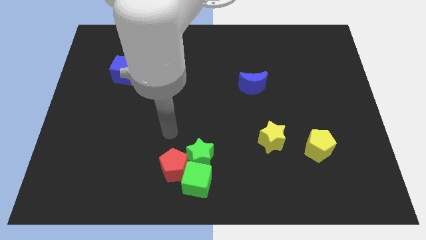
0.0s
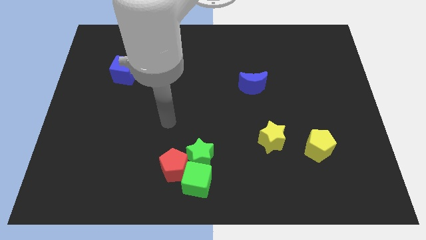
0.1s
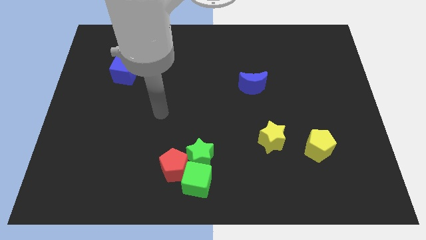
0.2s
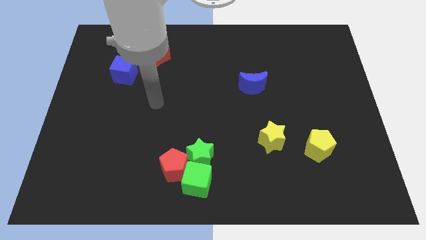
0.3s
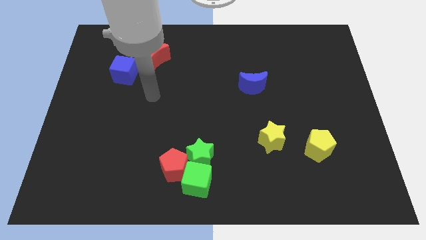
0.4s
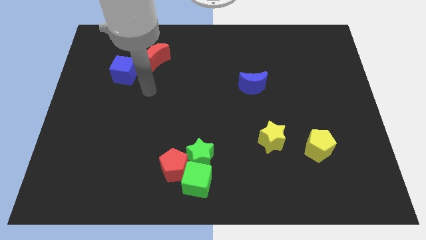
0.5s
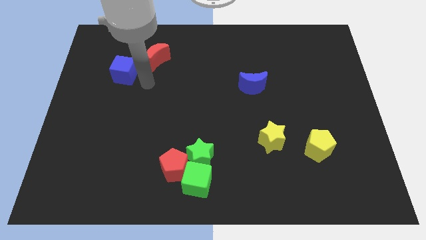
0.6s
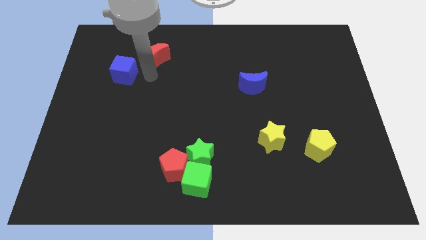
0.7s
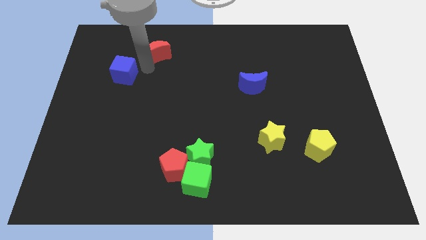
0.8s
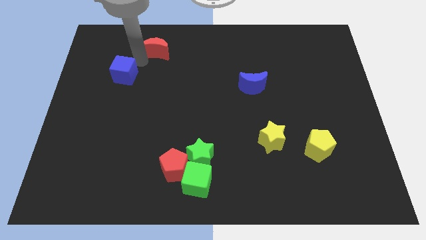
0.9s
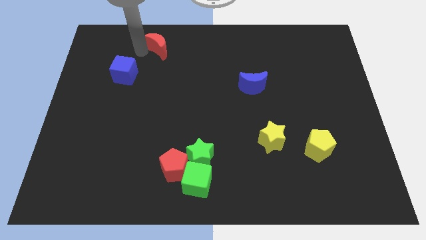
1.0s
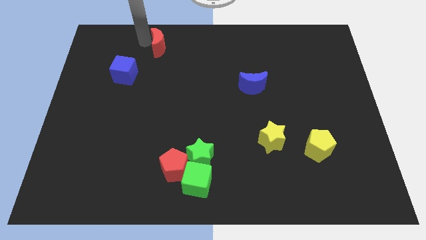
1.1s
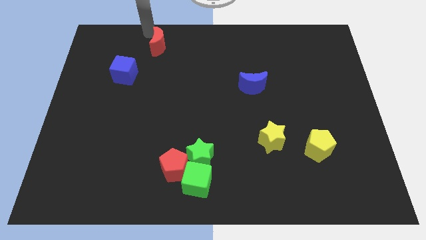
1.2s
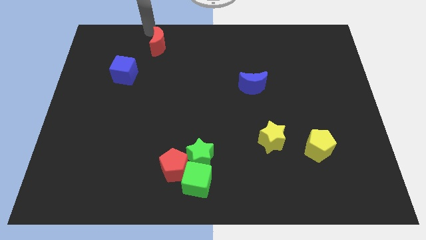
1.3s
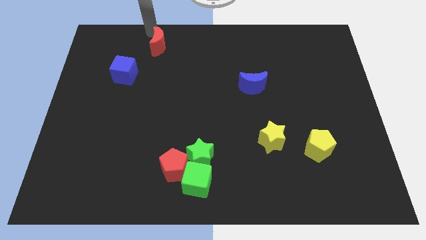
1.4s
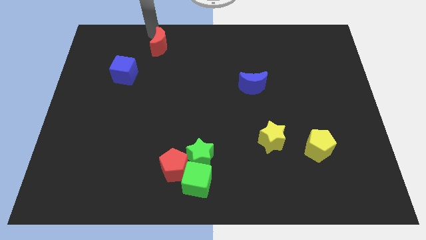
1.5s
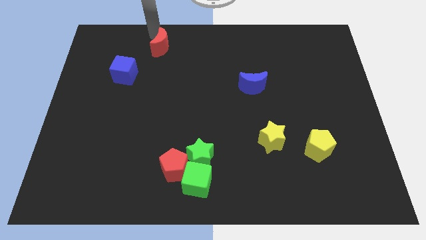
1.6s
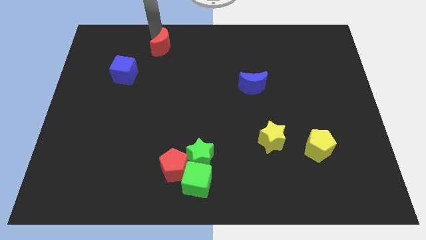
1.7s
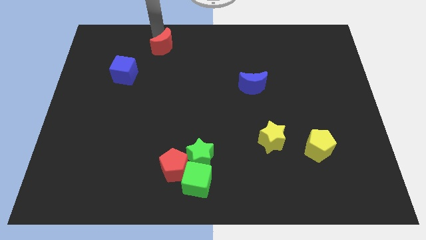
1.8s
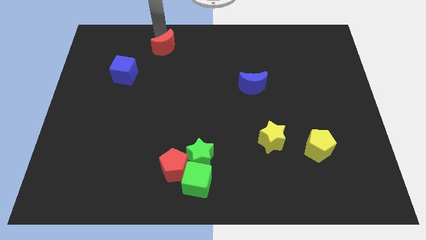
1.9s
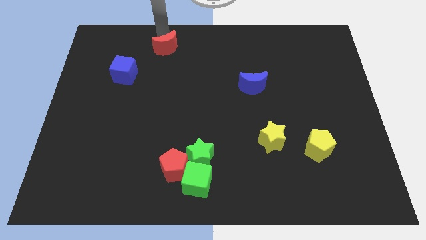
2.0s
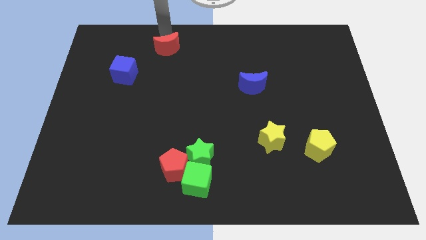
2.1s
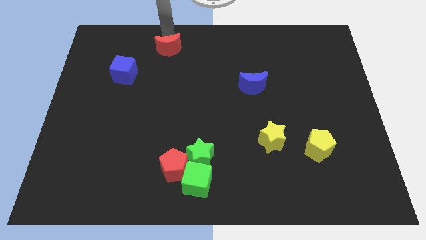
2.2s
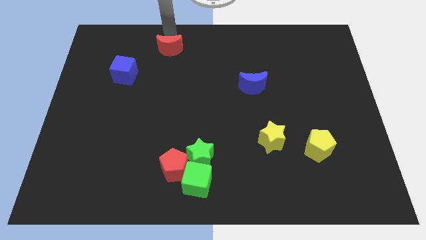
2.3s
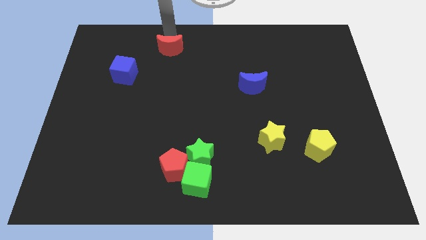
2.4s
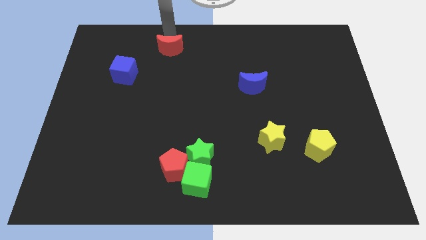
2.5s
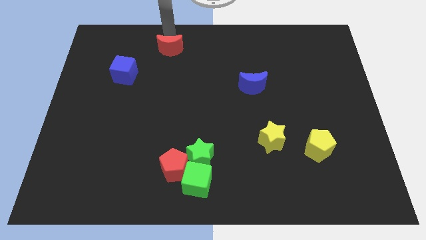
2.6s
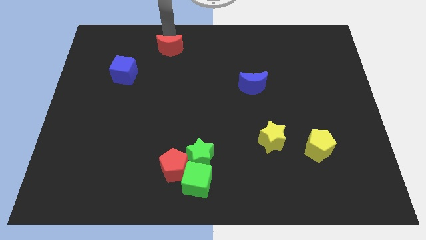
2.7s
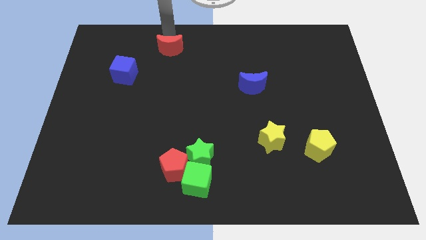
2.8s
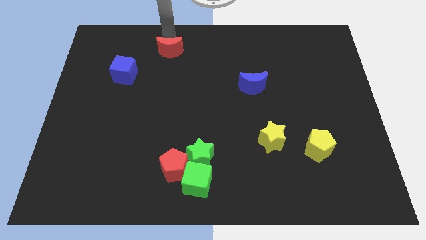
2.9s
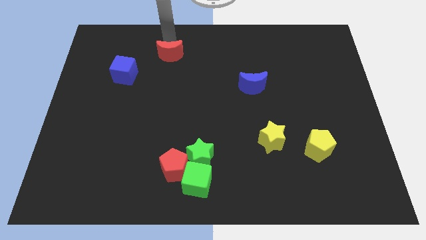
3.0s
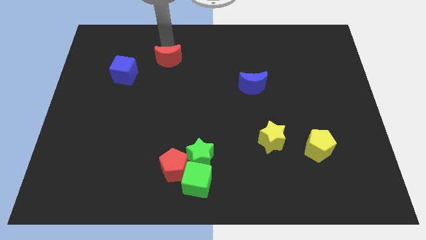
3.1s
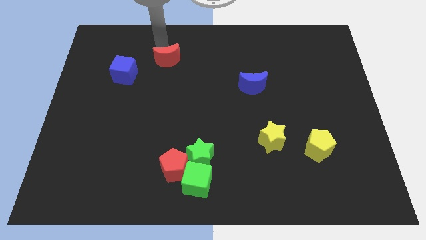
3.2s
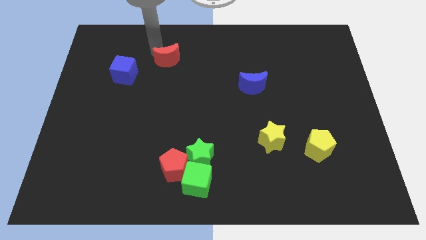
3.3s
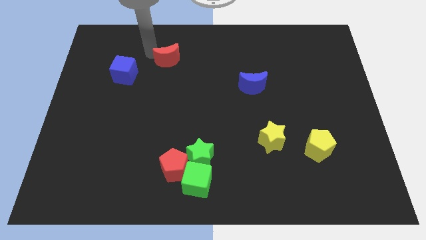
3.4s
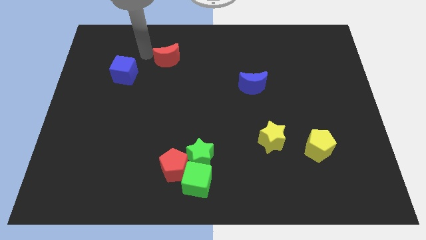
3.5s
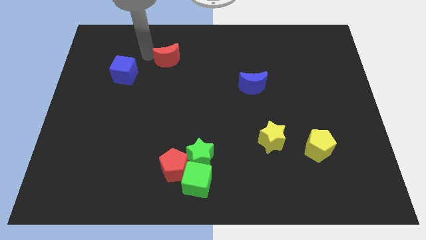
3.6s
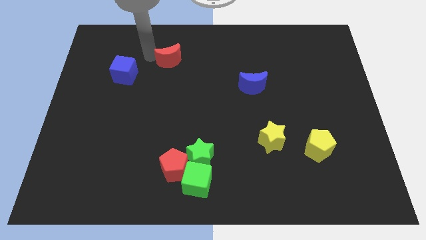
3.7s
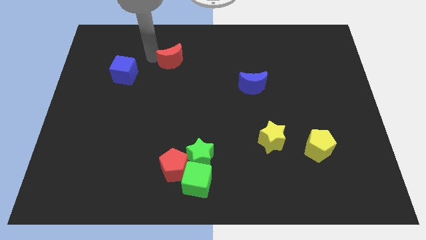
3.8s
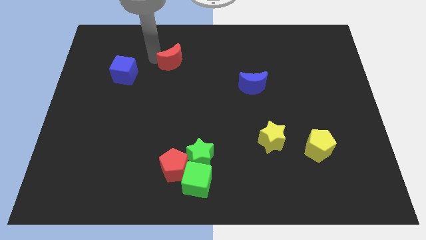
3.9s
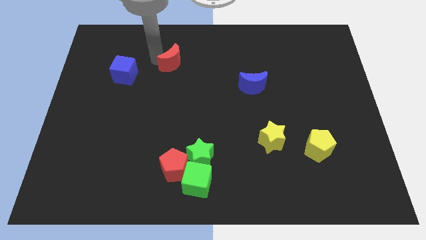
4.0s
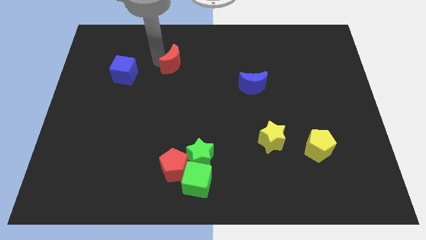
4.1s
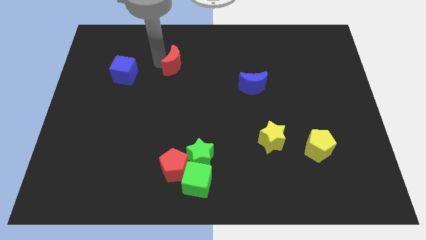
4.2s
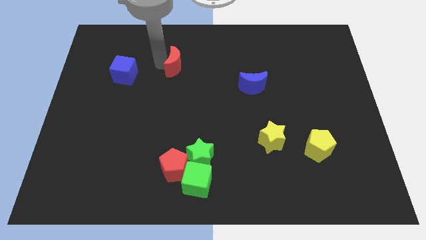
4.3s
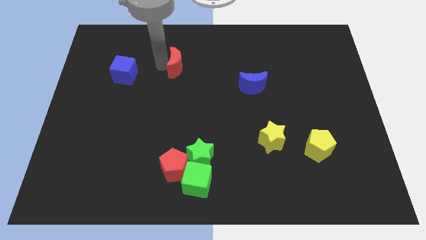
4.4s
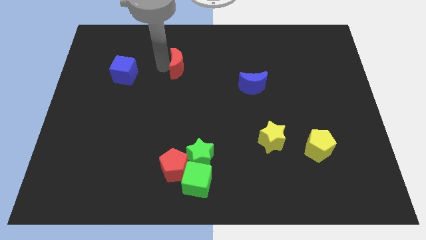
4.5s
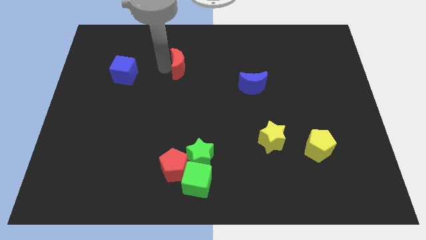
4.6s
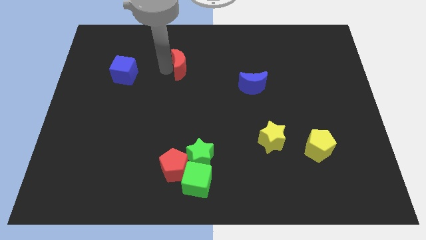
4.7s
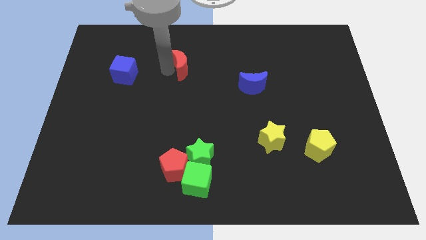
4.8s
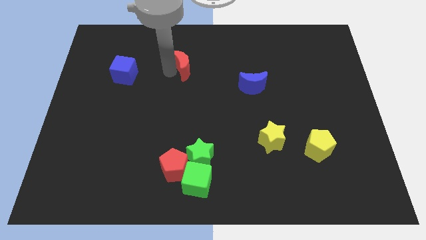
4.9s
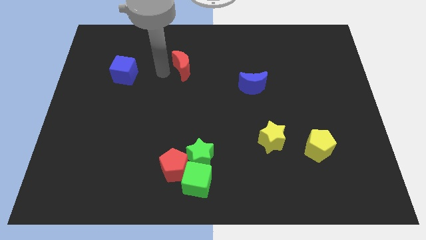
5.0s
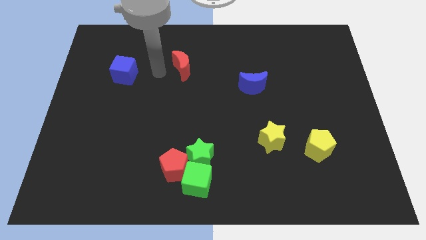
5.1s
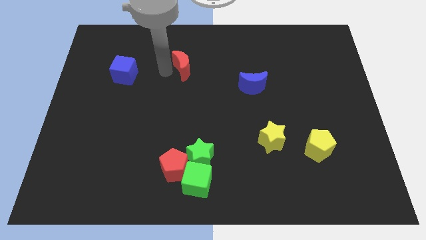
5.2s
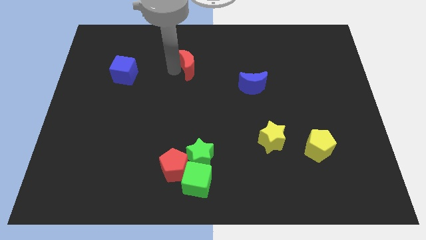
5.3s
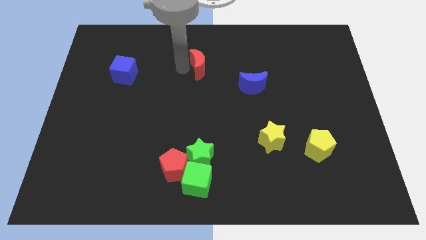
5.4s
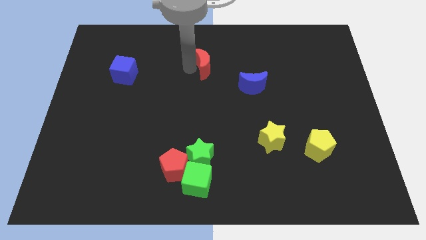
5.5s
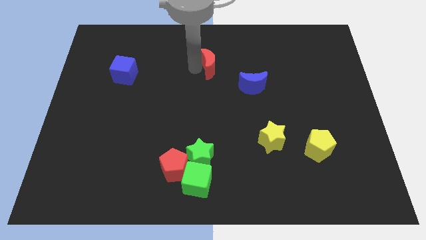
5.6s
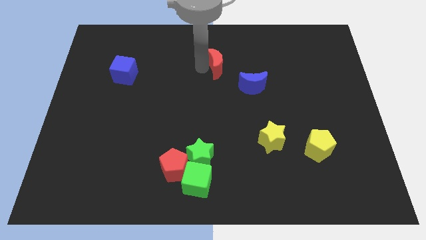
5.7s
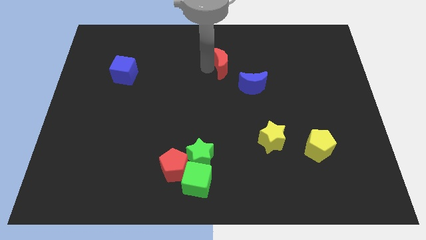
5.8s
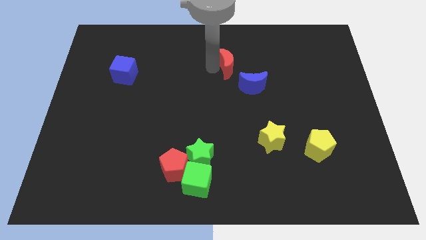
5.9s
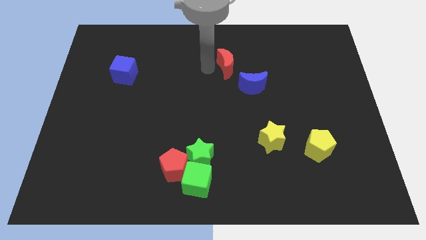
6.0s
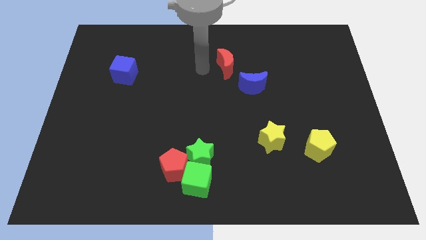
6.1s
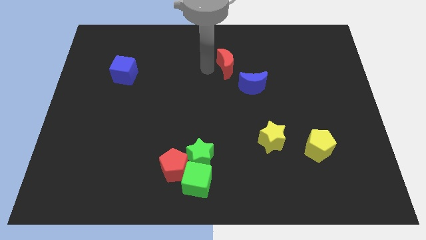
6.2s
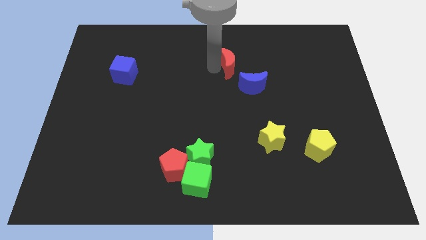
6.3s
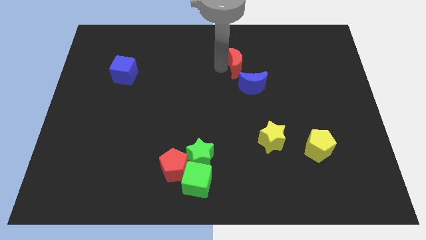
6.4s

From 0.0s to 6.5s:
push the red moon right

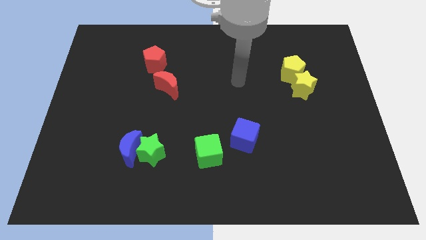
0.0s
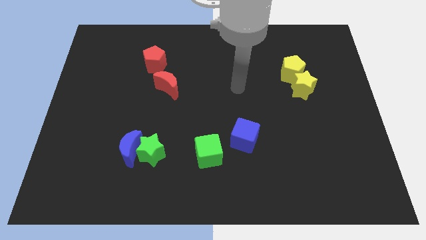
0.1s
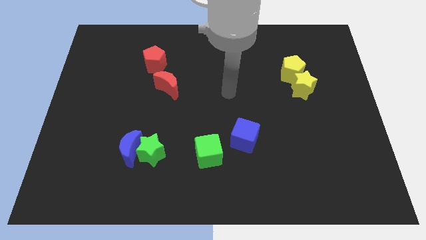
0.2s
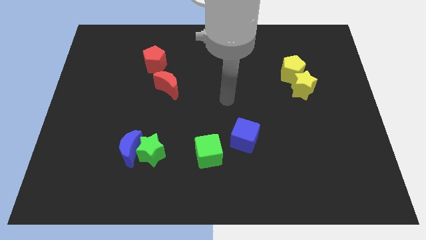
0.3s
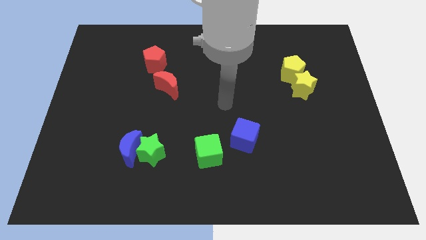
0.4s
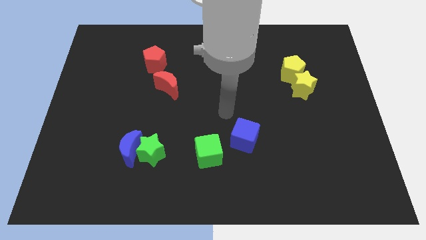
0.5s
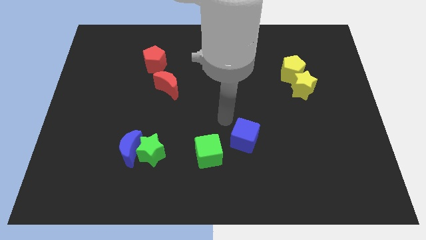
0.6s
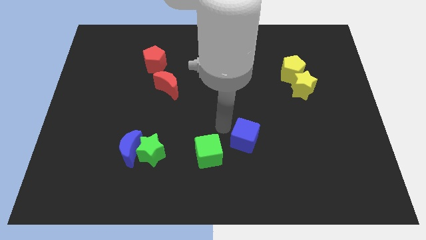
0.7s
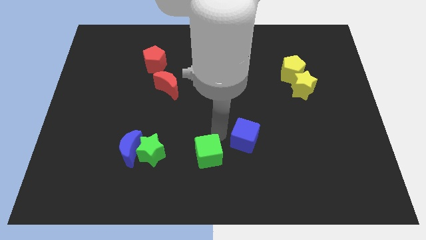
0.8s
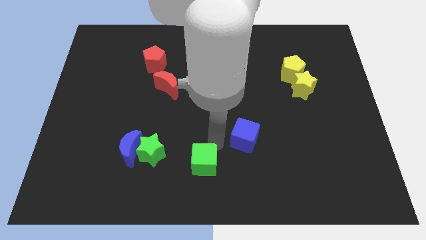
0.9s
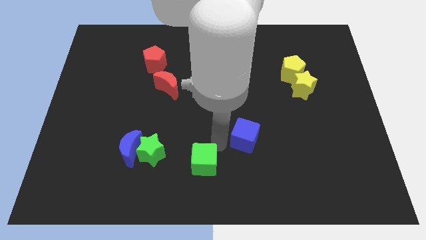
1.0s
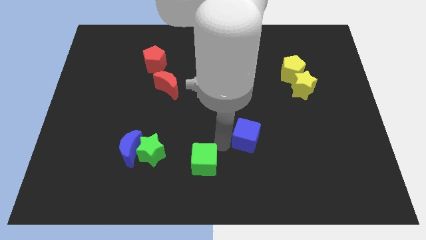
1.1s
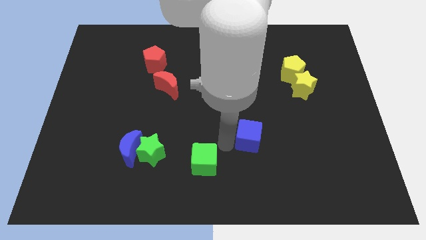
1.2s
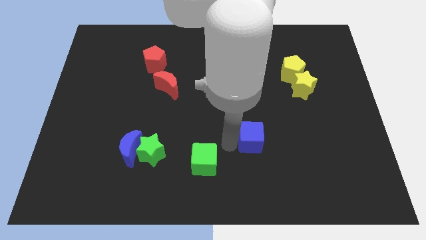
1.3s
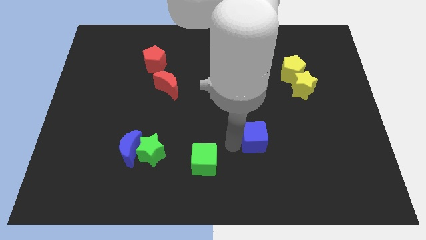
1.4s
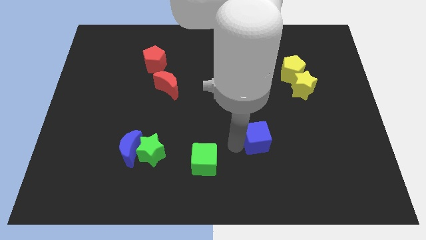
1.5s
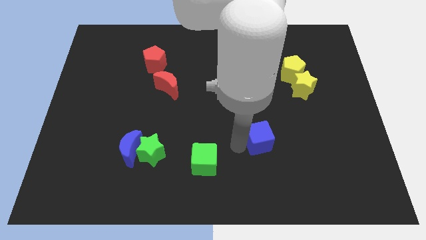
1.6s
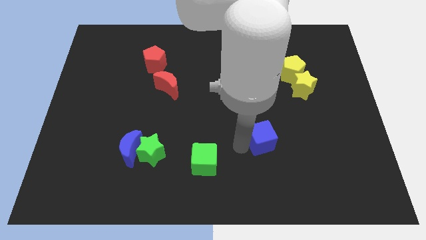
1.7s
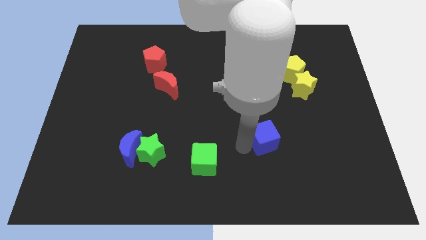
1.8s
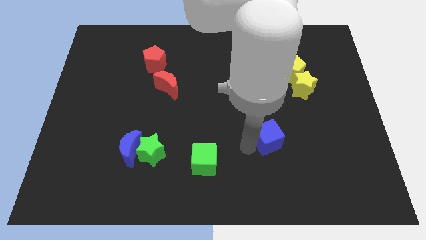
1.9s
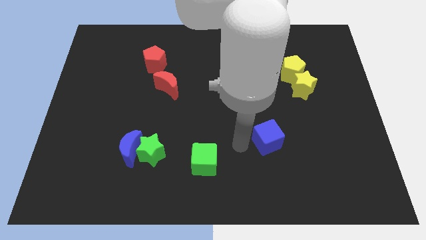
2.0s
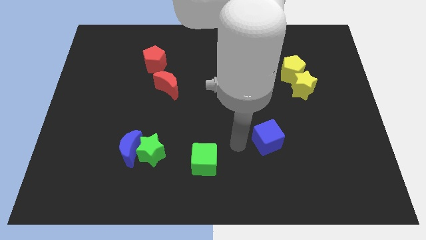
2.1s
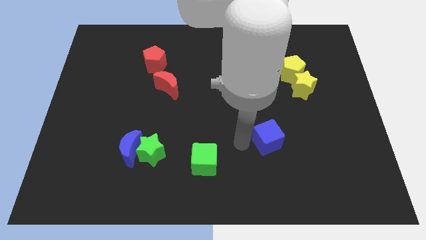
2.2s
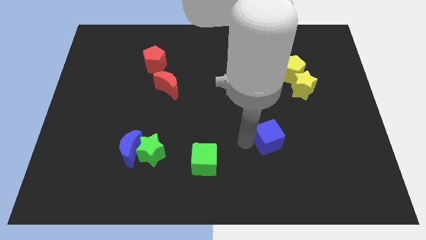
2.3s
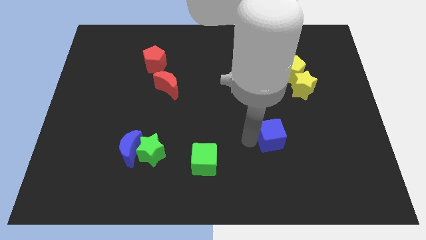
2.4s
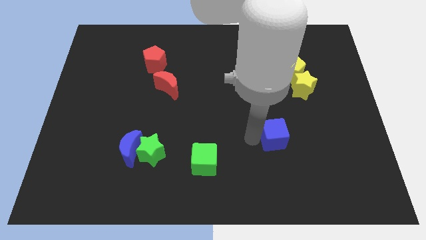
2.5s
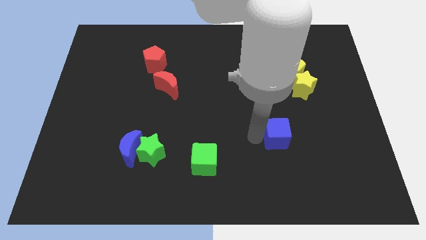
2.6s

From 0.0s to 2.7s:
slightly slide the blue cube to the right
